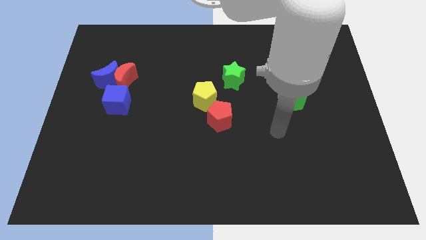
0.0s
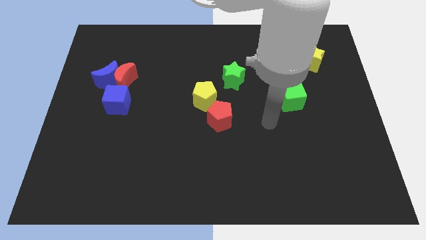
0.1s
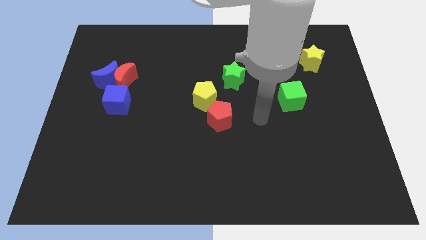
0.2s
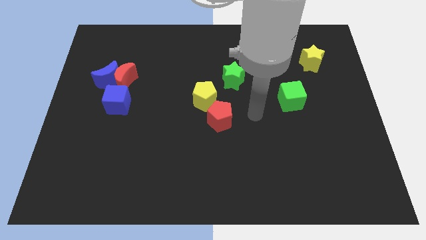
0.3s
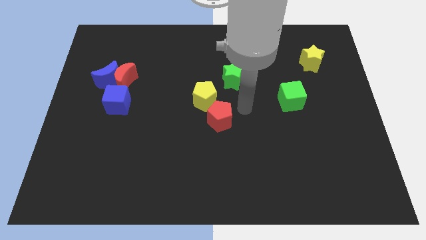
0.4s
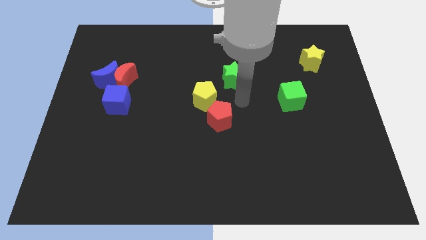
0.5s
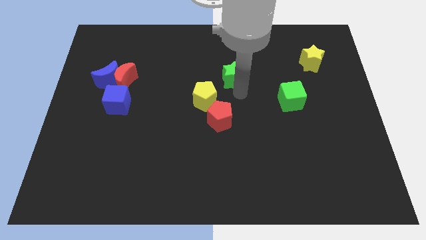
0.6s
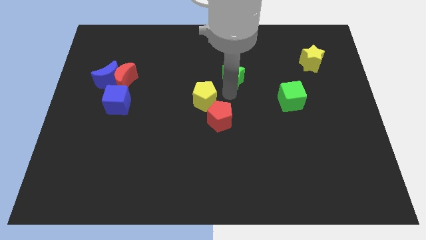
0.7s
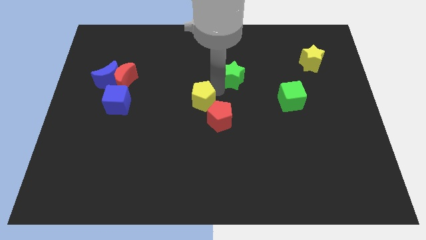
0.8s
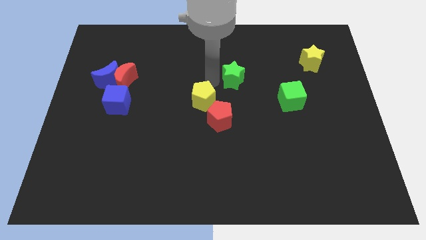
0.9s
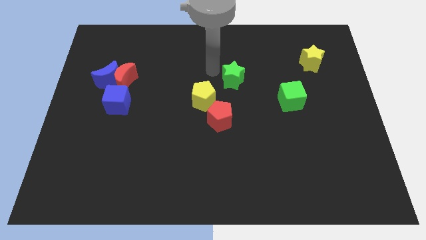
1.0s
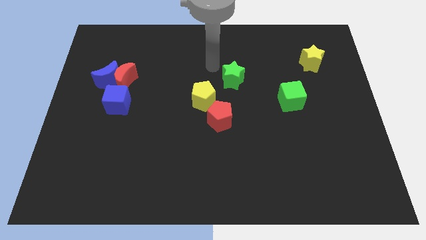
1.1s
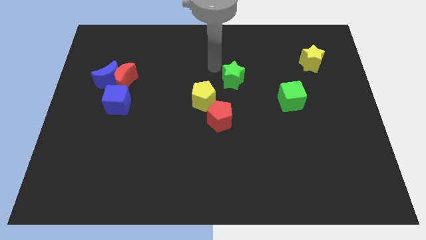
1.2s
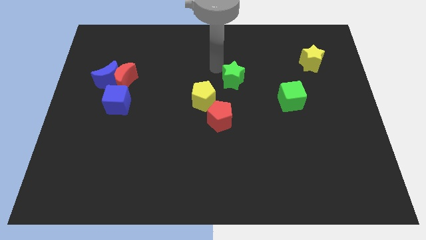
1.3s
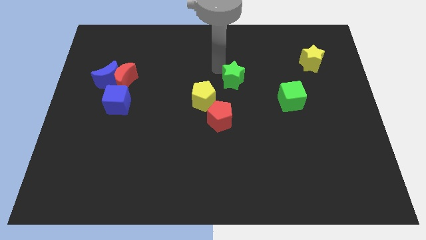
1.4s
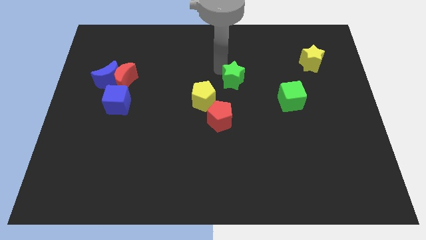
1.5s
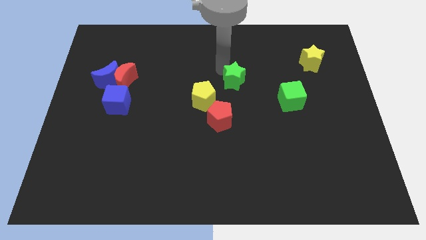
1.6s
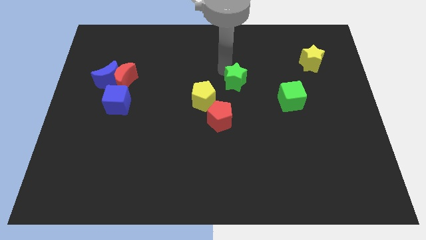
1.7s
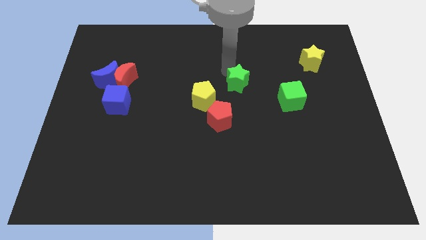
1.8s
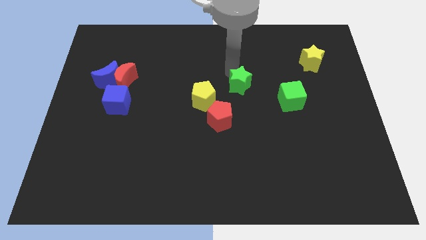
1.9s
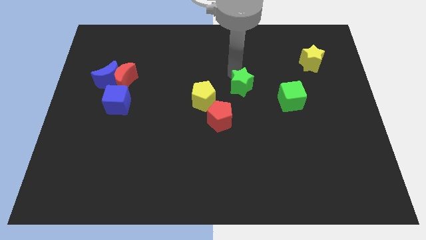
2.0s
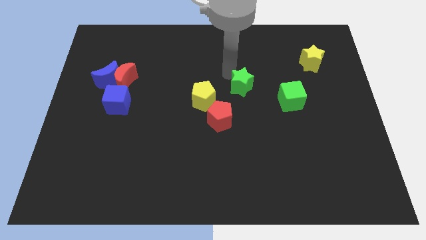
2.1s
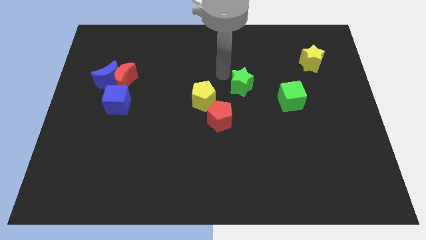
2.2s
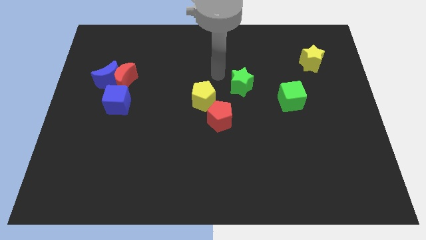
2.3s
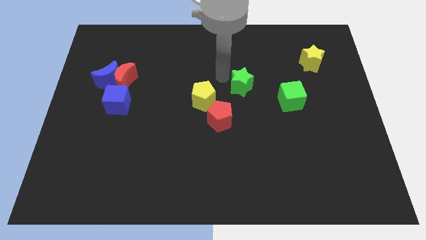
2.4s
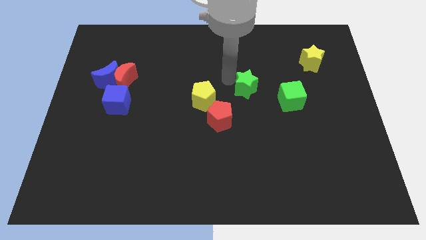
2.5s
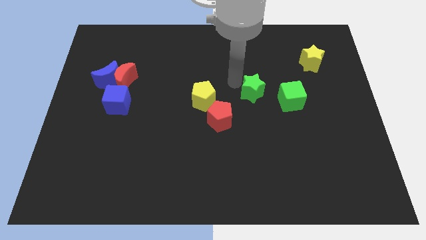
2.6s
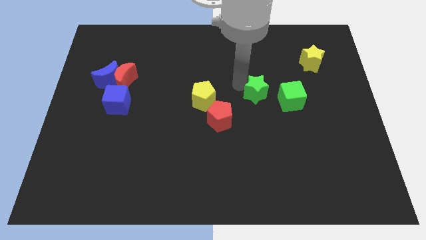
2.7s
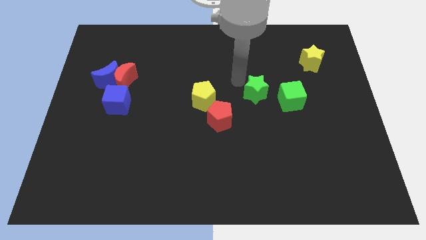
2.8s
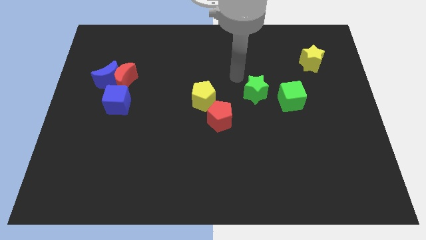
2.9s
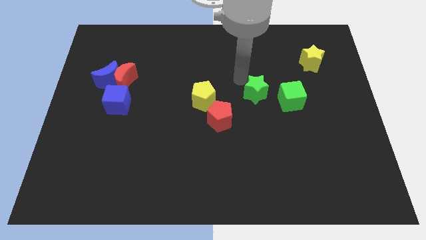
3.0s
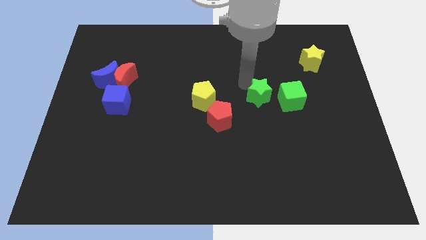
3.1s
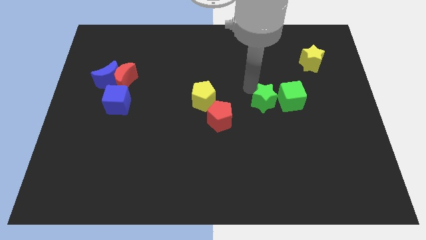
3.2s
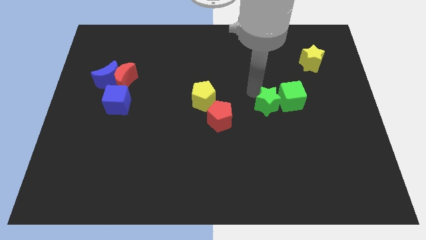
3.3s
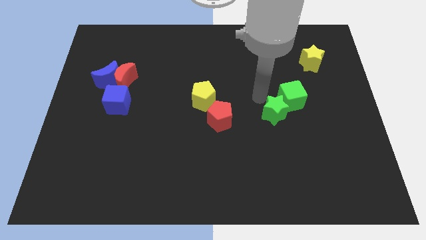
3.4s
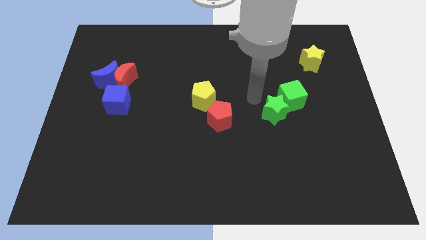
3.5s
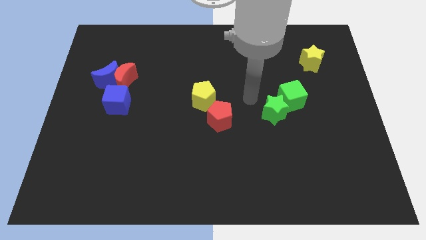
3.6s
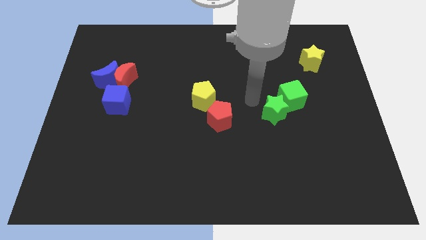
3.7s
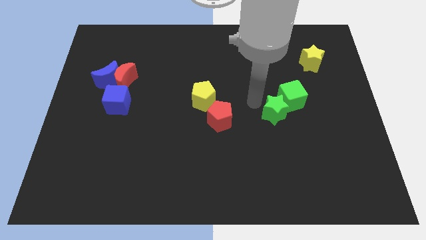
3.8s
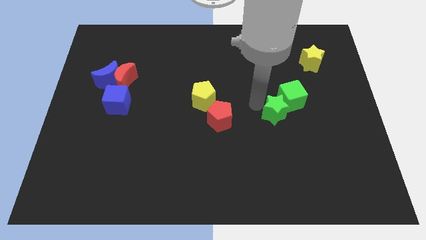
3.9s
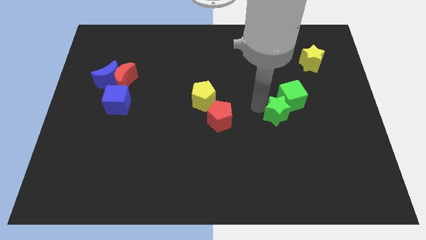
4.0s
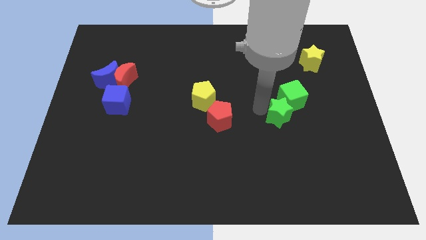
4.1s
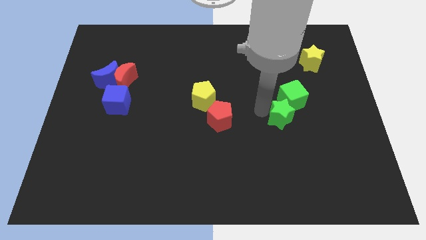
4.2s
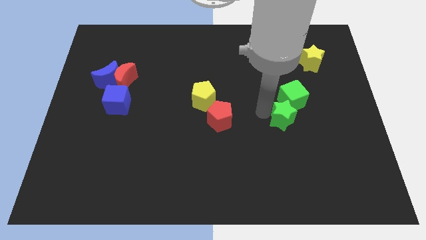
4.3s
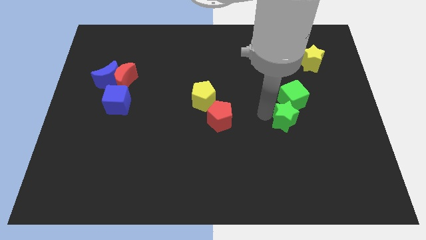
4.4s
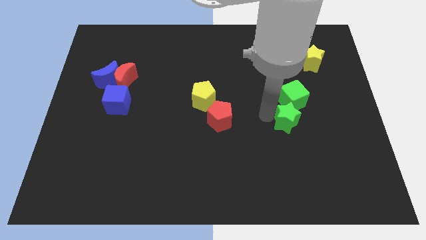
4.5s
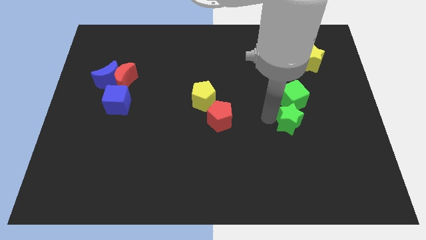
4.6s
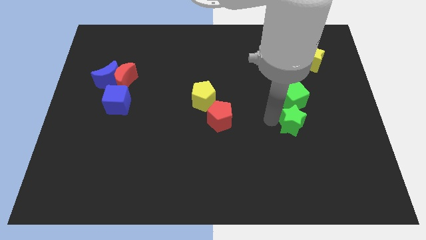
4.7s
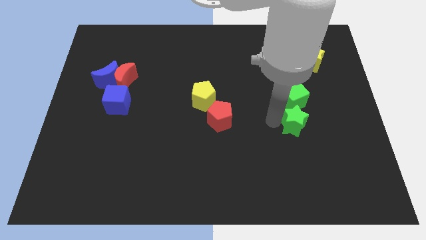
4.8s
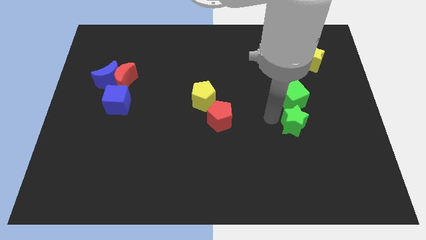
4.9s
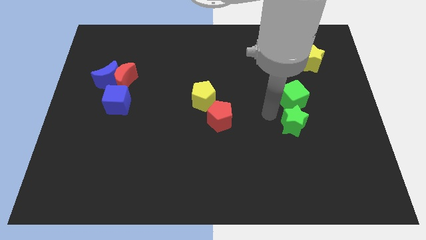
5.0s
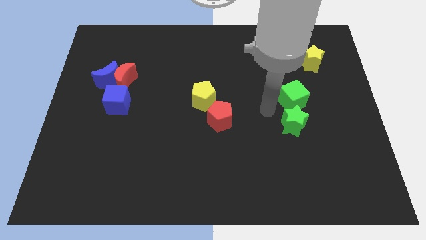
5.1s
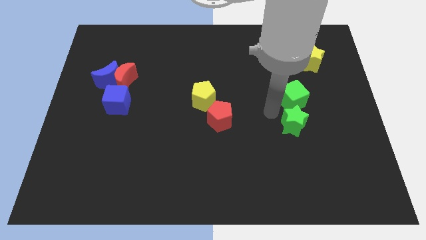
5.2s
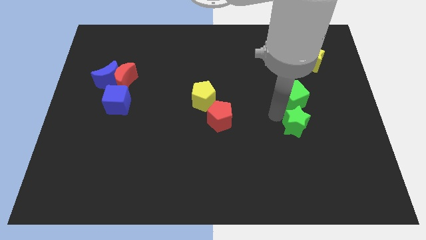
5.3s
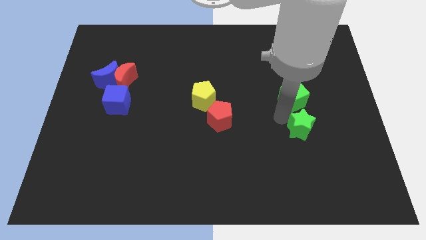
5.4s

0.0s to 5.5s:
push the green star down and right

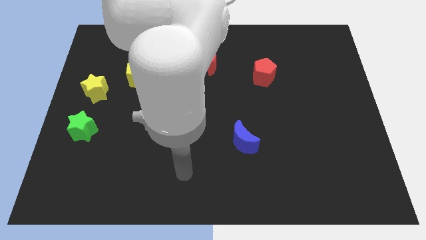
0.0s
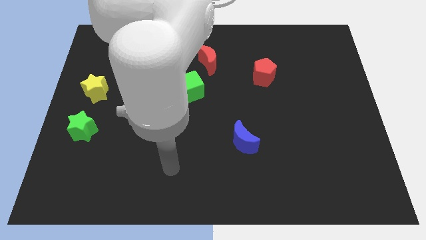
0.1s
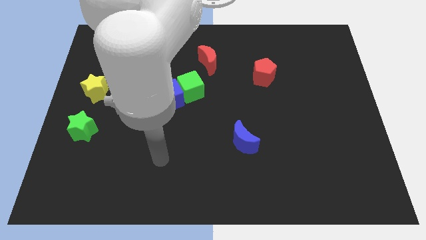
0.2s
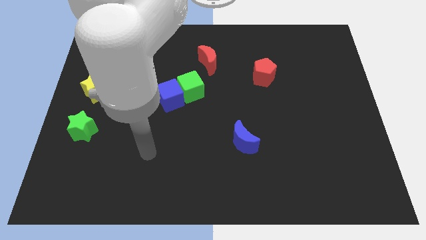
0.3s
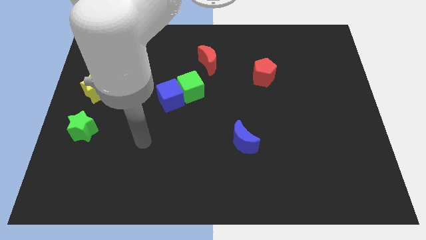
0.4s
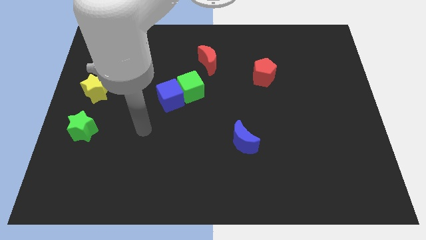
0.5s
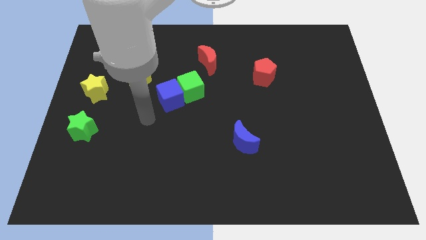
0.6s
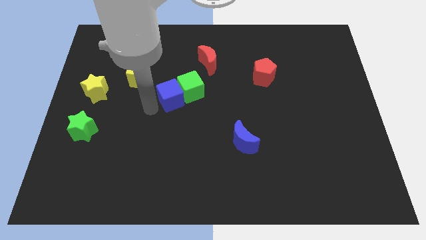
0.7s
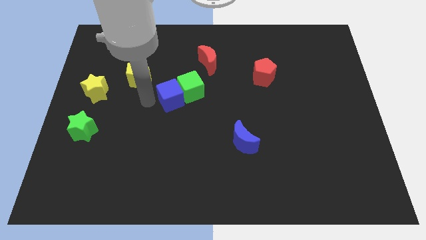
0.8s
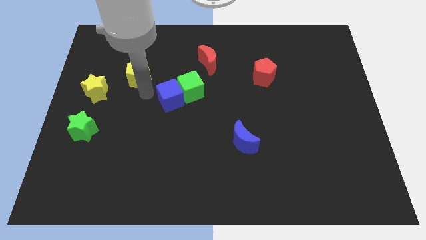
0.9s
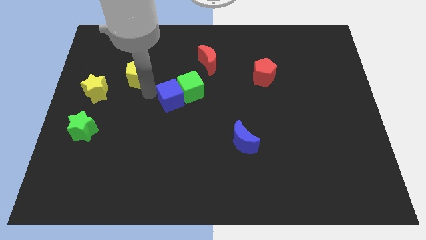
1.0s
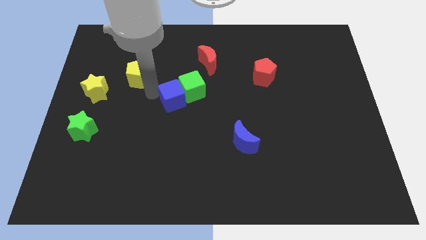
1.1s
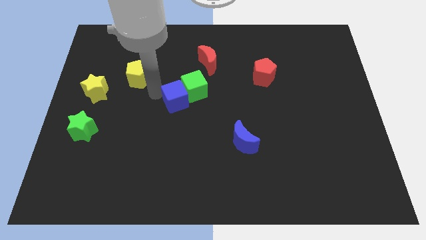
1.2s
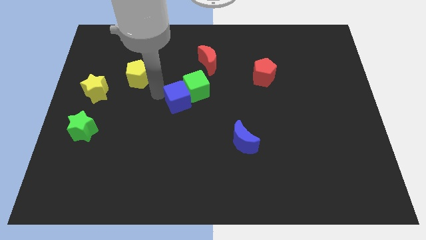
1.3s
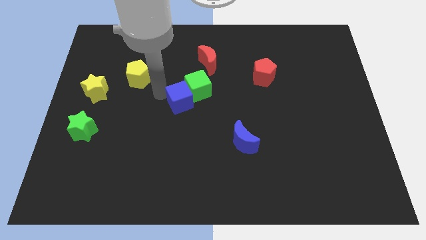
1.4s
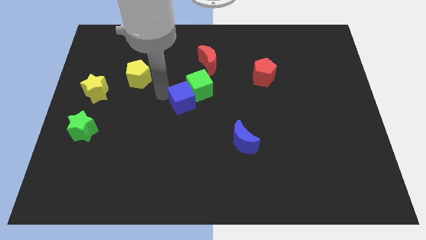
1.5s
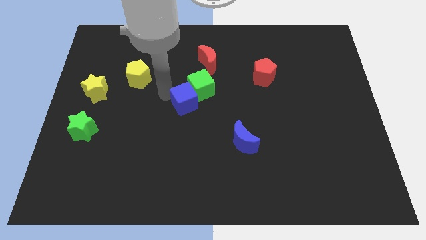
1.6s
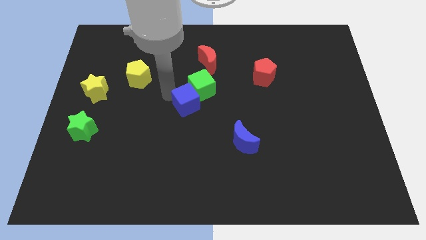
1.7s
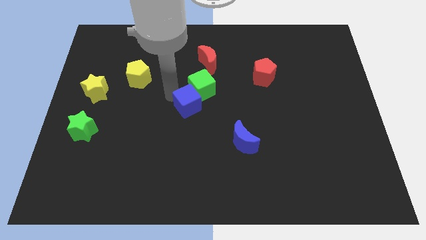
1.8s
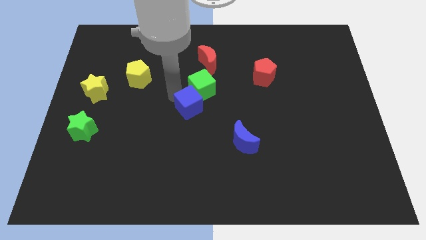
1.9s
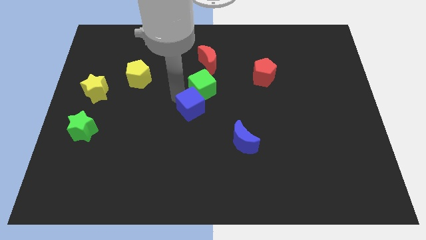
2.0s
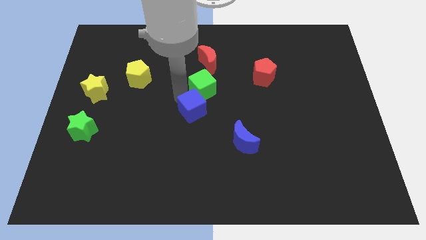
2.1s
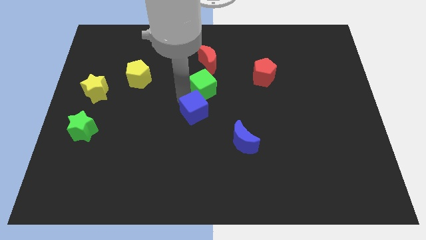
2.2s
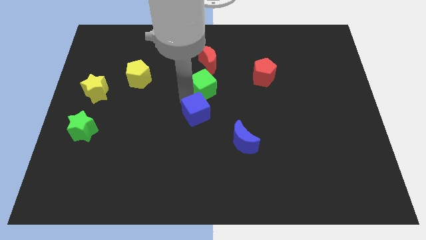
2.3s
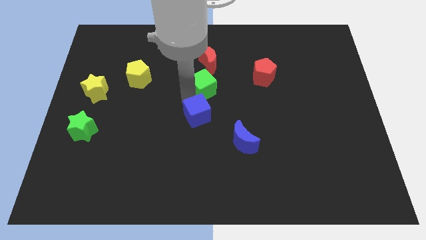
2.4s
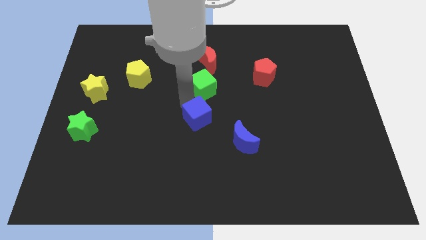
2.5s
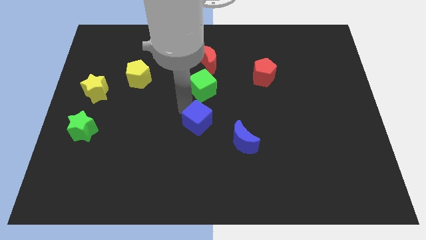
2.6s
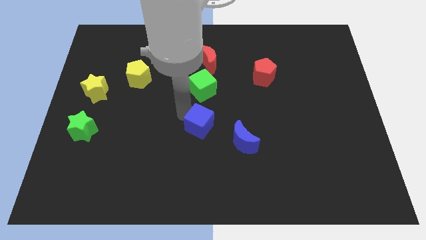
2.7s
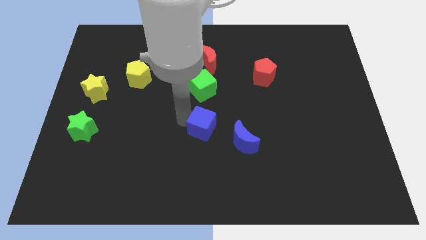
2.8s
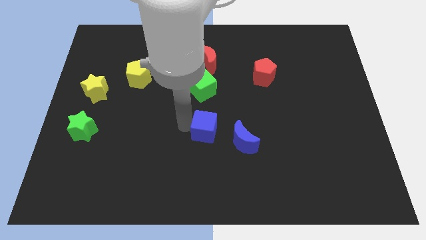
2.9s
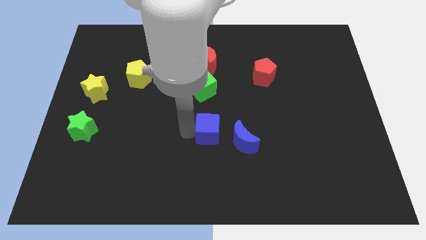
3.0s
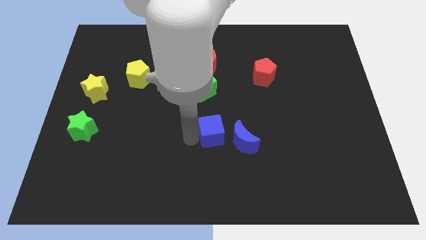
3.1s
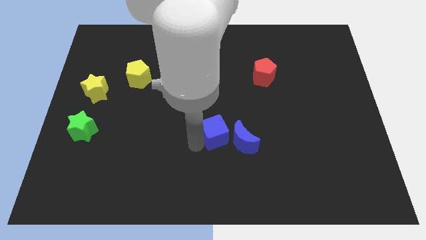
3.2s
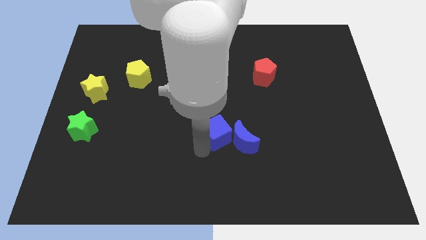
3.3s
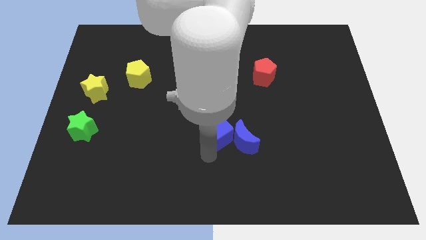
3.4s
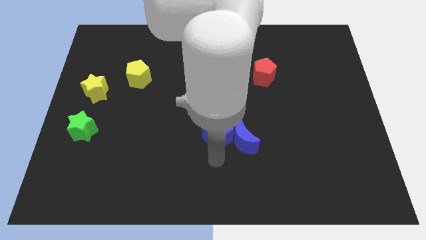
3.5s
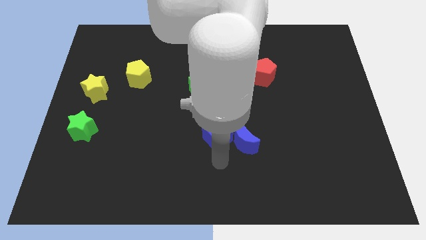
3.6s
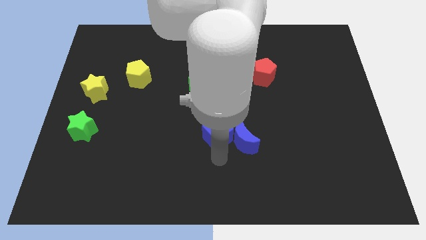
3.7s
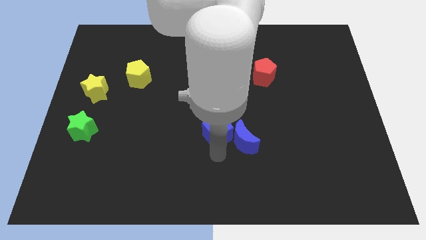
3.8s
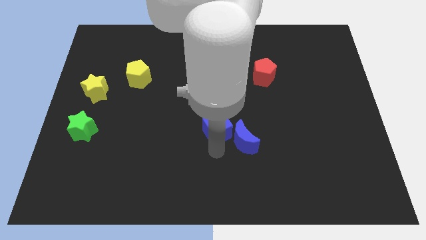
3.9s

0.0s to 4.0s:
slightly push the blue cube right
